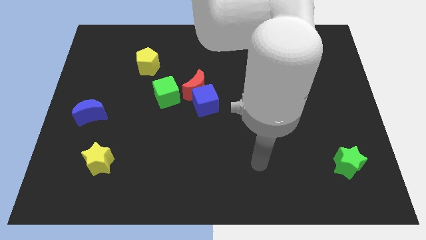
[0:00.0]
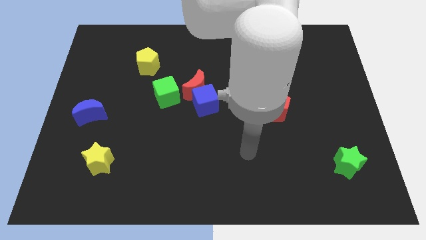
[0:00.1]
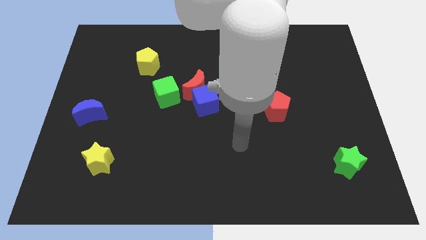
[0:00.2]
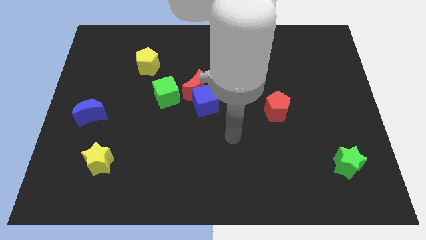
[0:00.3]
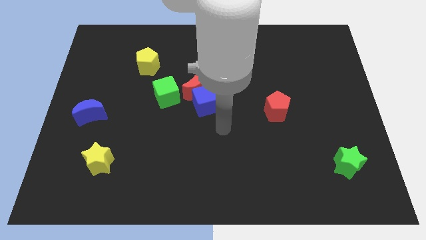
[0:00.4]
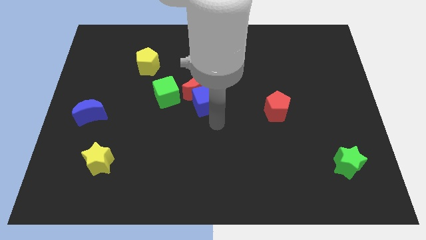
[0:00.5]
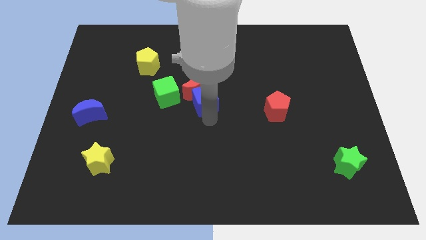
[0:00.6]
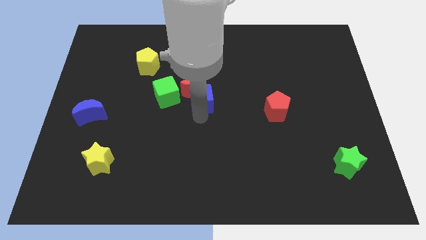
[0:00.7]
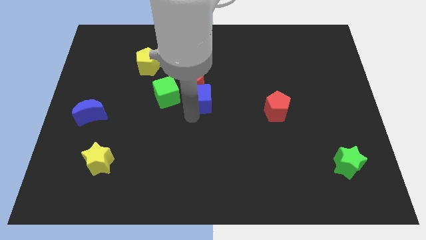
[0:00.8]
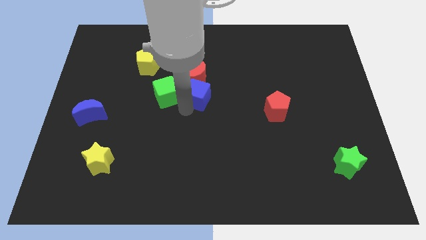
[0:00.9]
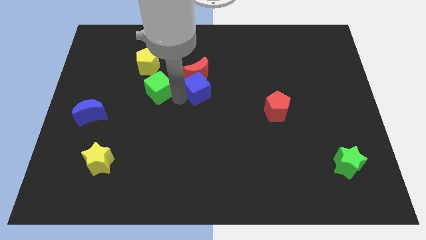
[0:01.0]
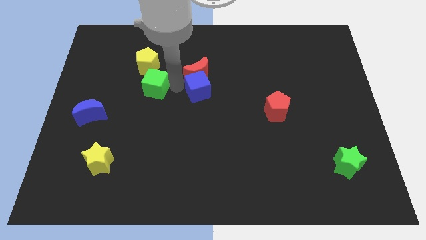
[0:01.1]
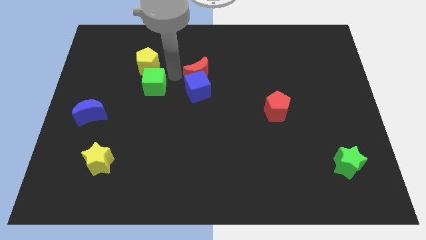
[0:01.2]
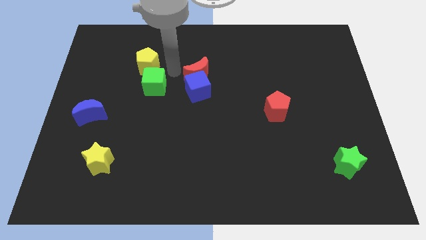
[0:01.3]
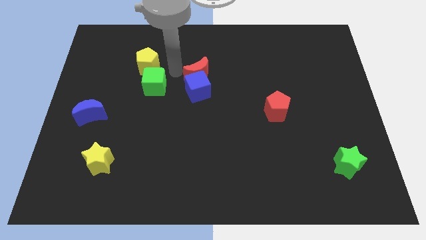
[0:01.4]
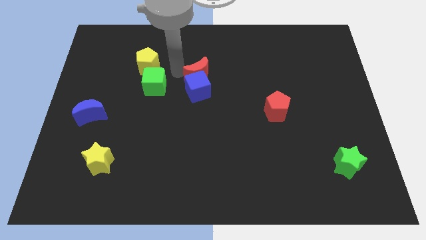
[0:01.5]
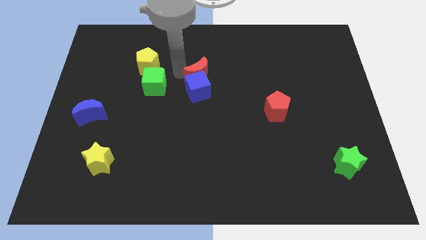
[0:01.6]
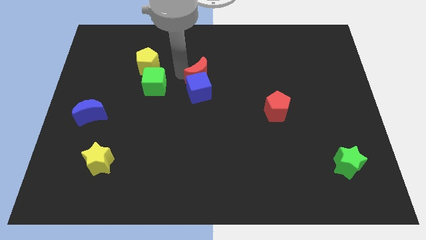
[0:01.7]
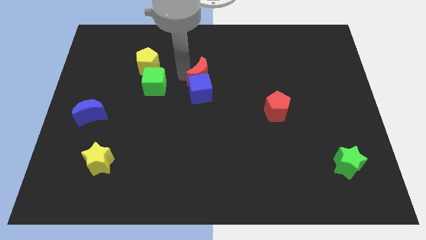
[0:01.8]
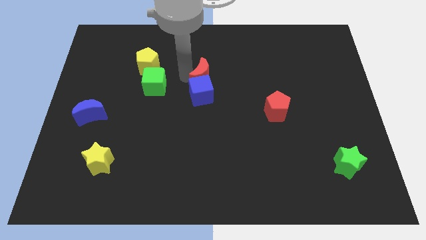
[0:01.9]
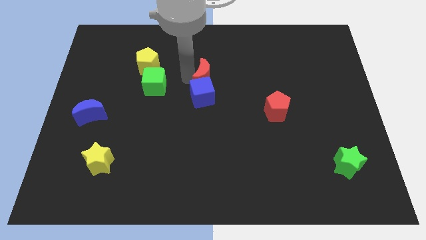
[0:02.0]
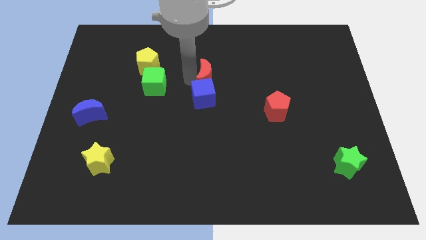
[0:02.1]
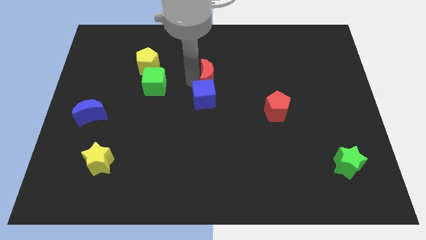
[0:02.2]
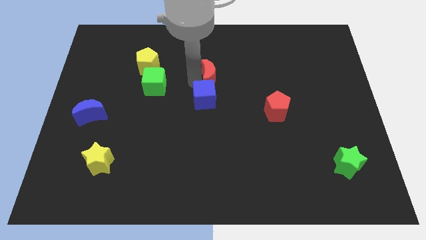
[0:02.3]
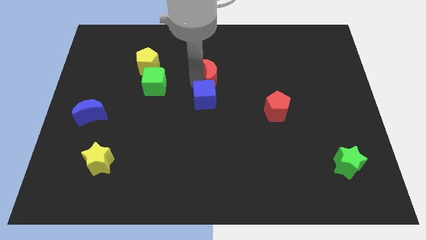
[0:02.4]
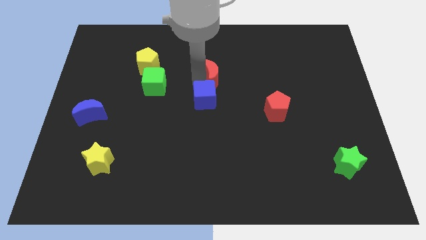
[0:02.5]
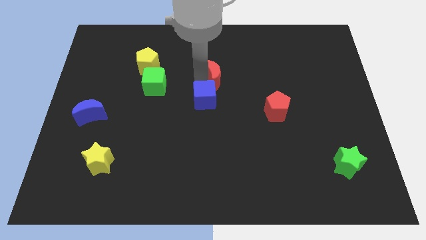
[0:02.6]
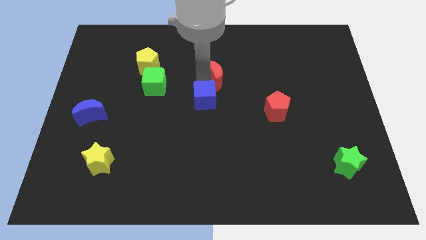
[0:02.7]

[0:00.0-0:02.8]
pull the red moon apart from the blue cube and green cube

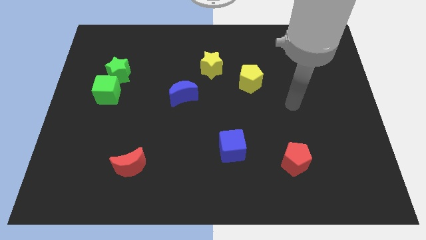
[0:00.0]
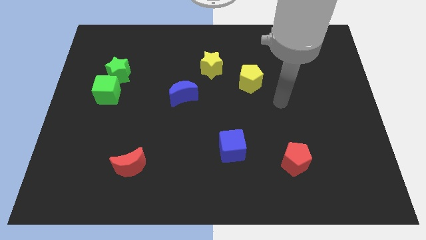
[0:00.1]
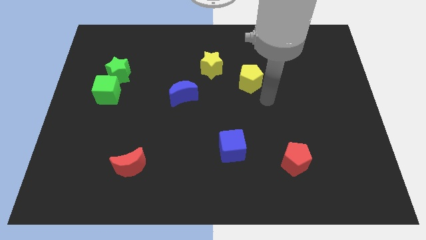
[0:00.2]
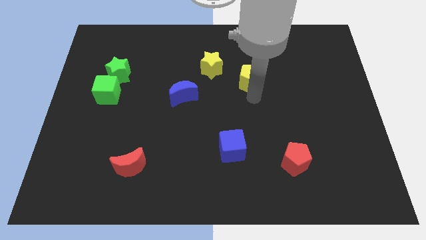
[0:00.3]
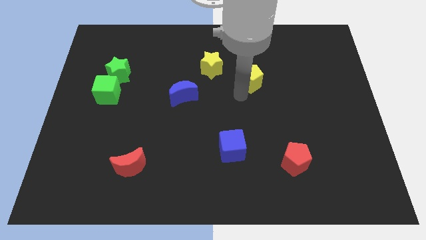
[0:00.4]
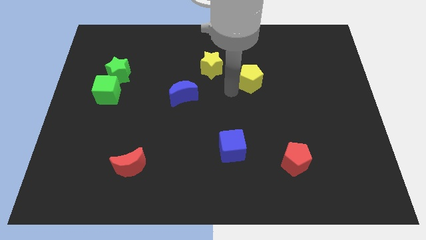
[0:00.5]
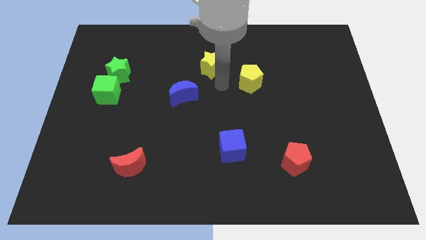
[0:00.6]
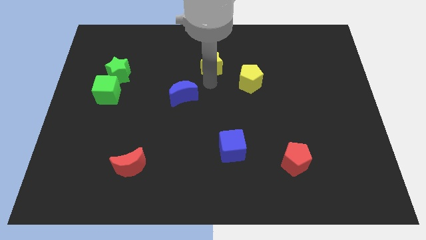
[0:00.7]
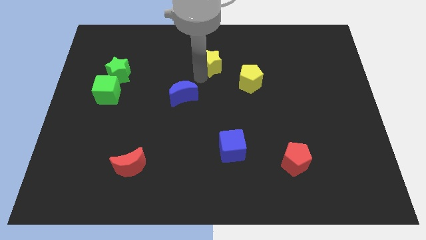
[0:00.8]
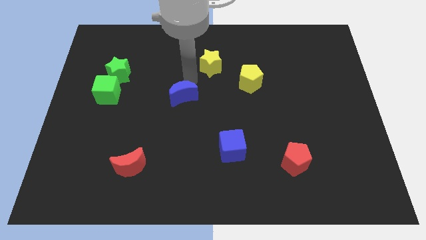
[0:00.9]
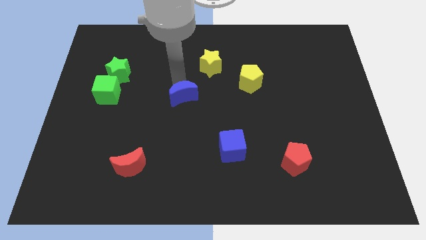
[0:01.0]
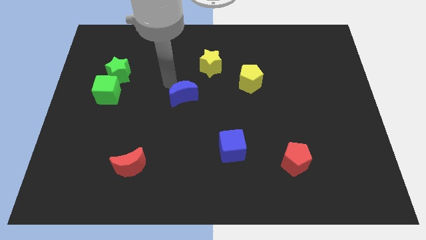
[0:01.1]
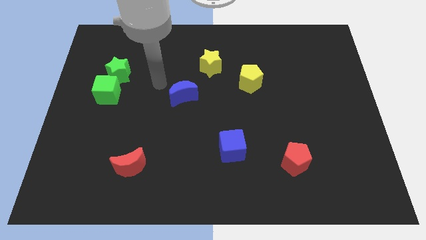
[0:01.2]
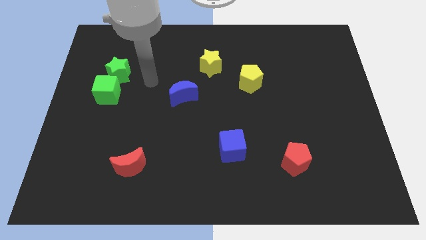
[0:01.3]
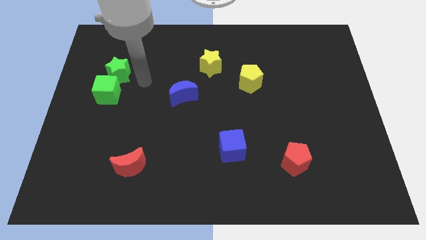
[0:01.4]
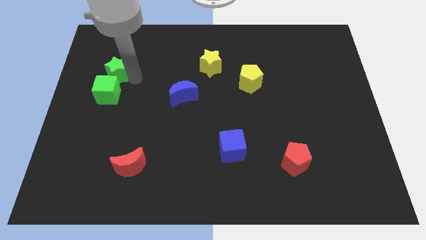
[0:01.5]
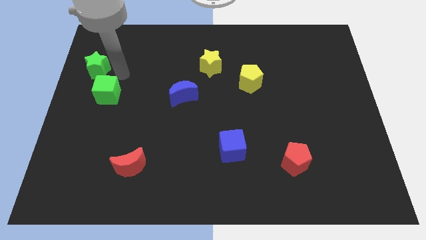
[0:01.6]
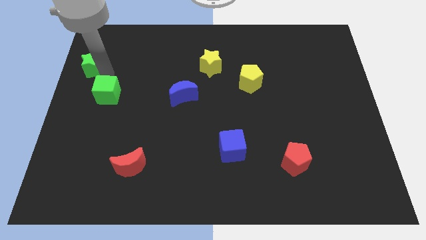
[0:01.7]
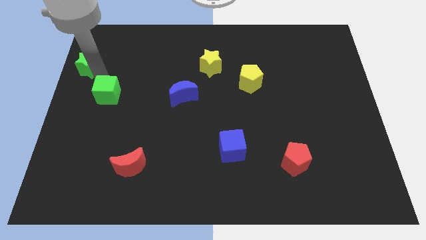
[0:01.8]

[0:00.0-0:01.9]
separate the green cube from the green star

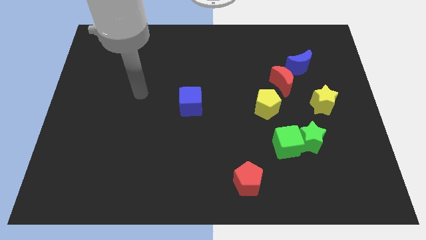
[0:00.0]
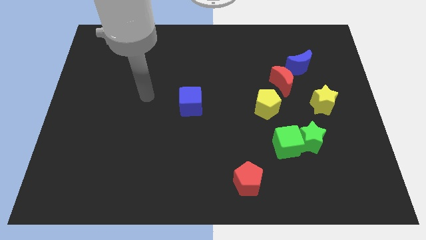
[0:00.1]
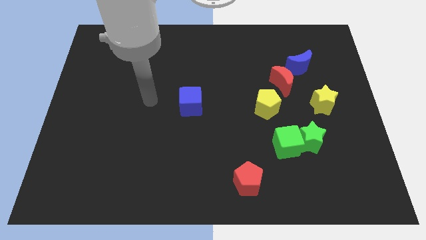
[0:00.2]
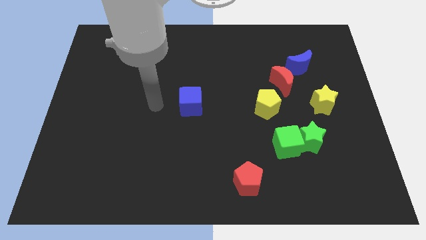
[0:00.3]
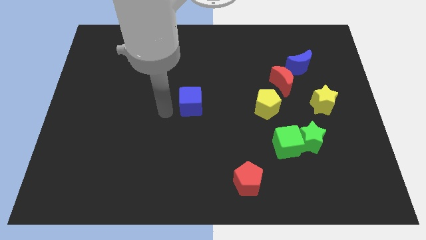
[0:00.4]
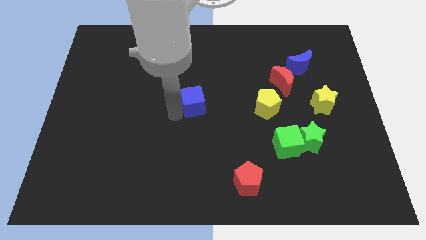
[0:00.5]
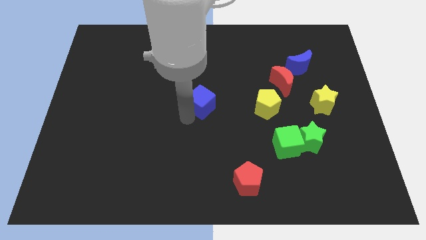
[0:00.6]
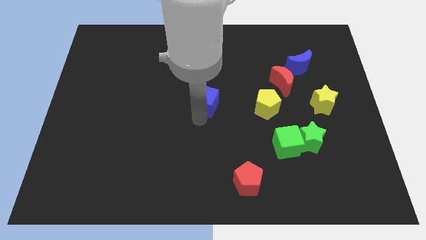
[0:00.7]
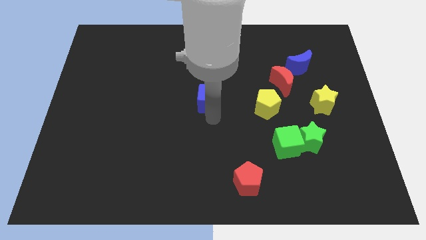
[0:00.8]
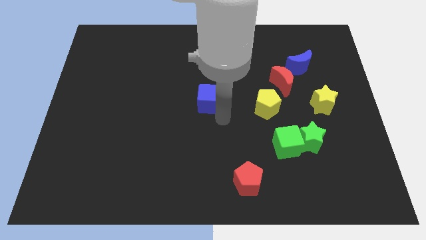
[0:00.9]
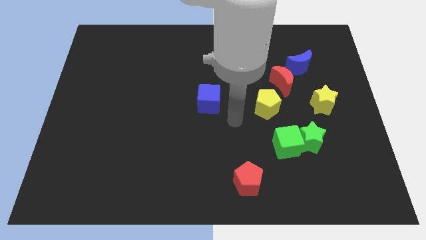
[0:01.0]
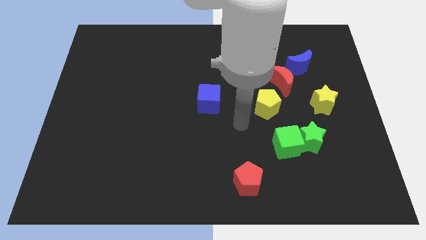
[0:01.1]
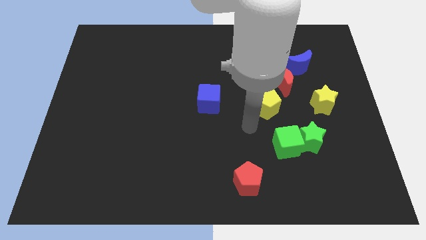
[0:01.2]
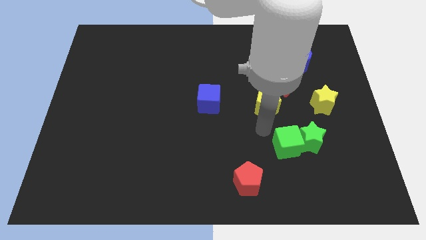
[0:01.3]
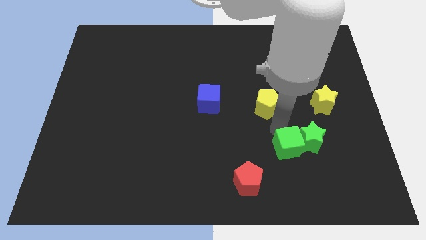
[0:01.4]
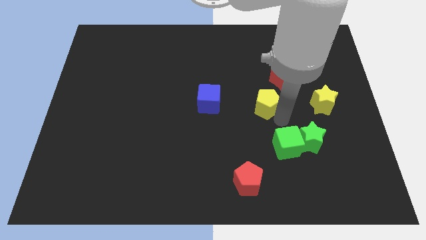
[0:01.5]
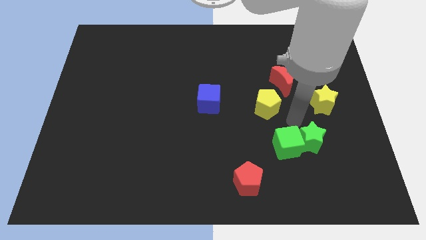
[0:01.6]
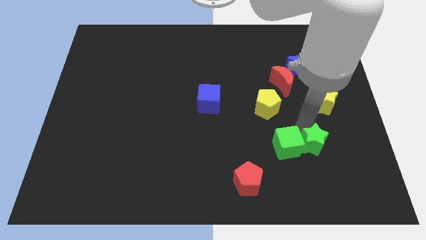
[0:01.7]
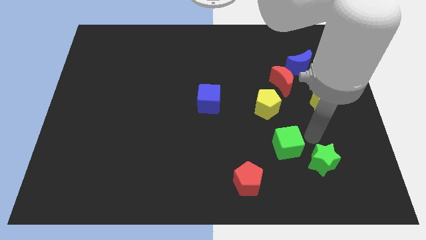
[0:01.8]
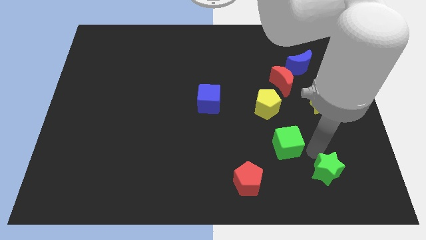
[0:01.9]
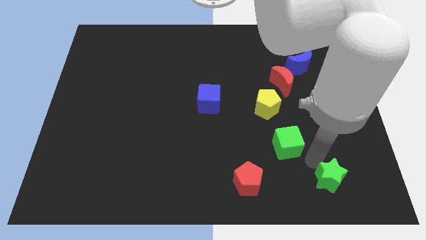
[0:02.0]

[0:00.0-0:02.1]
move the green cube away from the green star

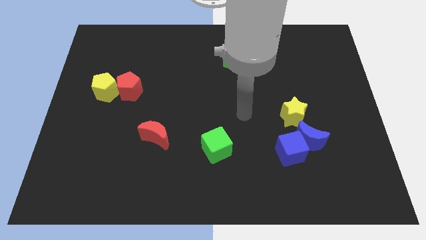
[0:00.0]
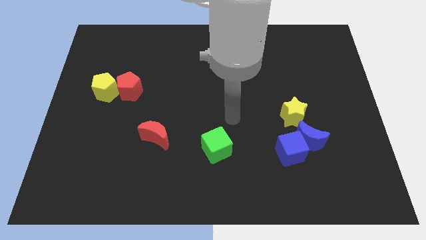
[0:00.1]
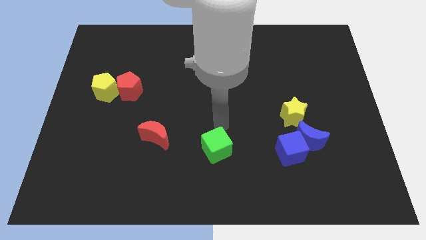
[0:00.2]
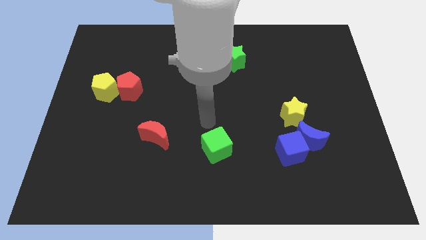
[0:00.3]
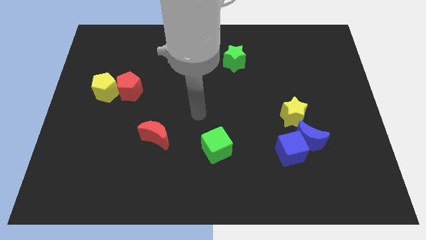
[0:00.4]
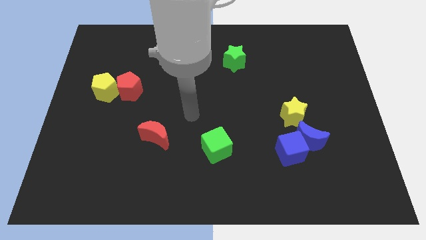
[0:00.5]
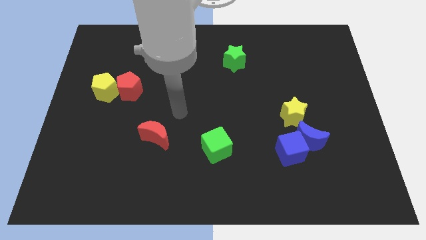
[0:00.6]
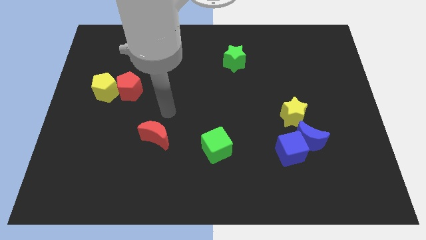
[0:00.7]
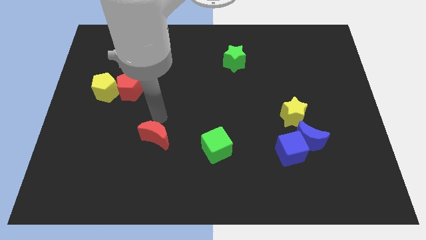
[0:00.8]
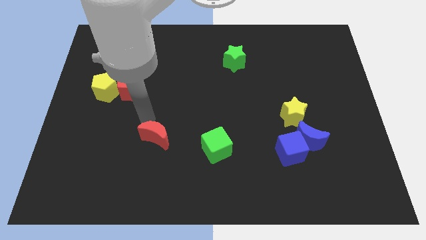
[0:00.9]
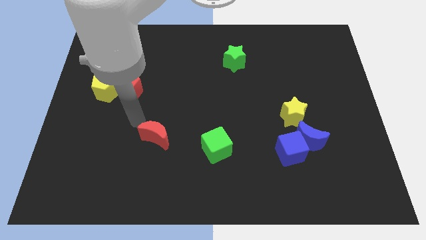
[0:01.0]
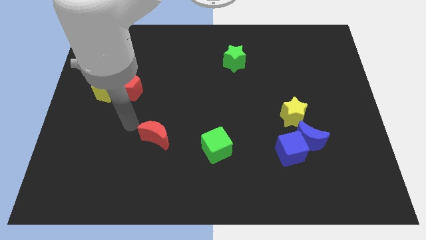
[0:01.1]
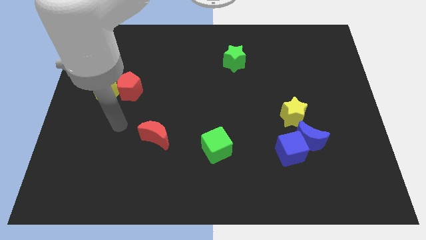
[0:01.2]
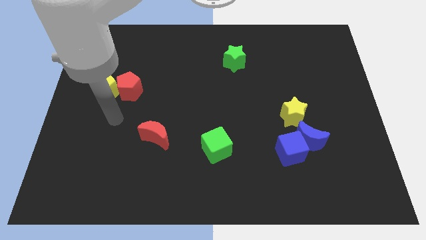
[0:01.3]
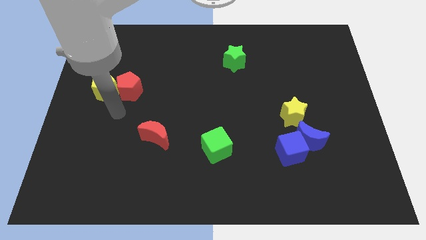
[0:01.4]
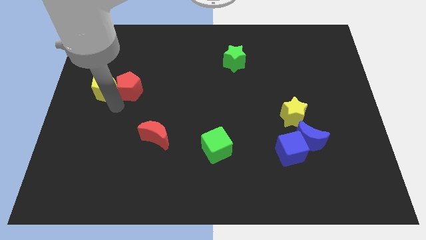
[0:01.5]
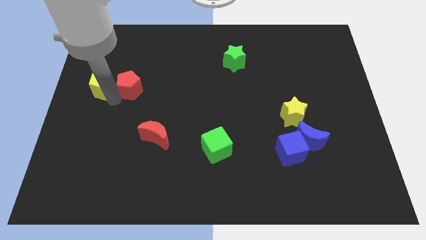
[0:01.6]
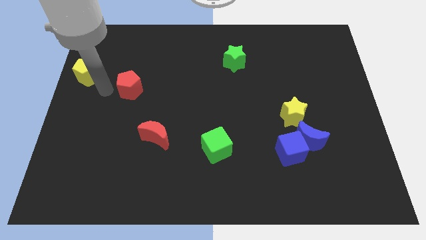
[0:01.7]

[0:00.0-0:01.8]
move the red pentagon away from the yellow pentagon

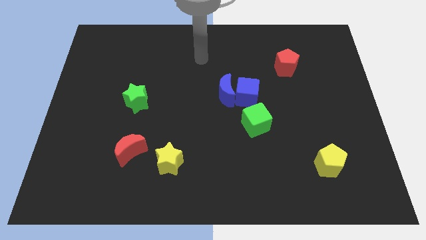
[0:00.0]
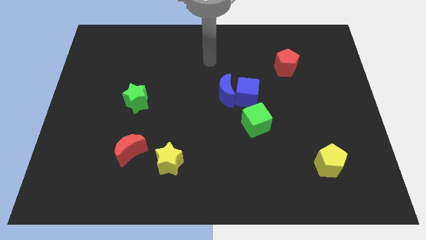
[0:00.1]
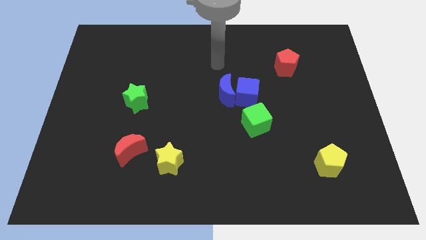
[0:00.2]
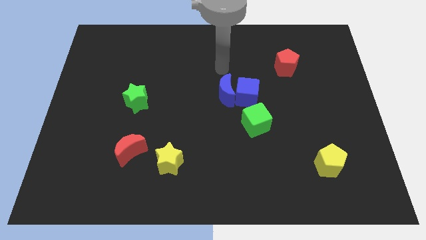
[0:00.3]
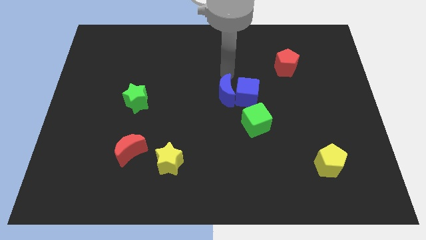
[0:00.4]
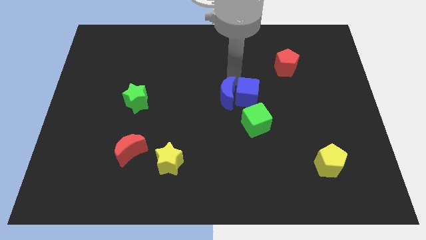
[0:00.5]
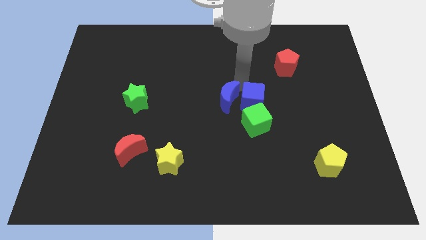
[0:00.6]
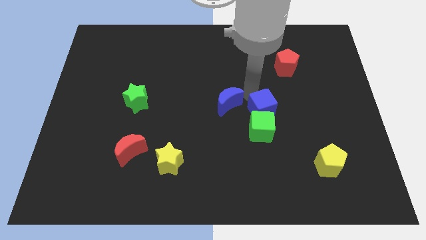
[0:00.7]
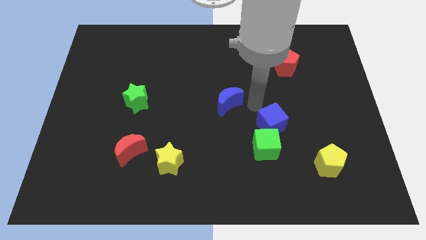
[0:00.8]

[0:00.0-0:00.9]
separate the blue moon from the blue cube
